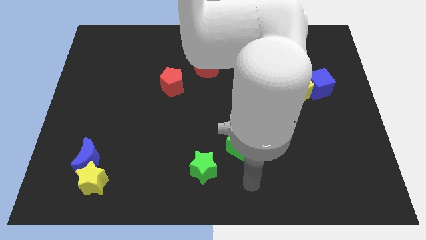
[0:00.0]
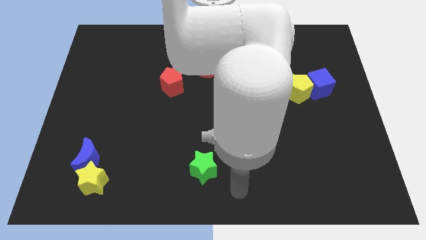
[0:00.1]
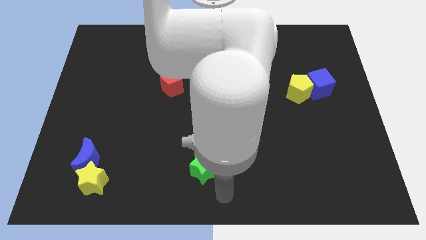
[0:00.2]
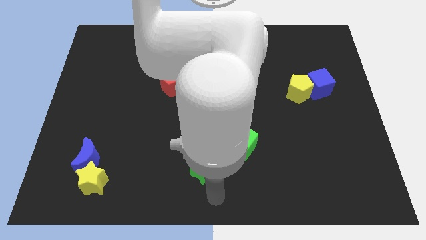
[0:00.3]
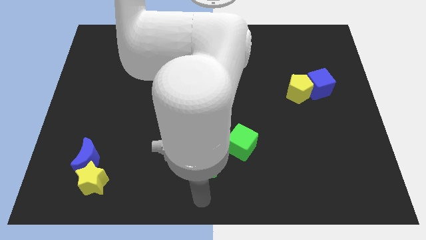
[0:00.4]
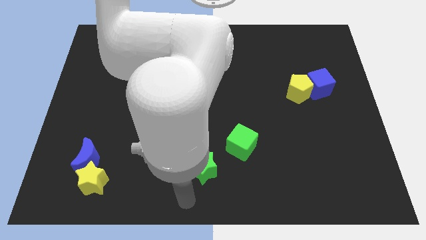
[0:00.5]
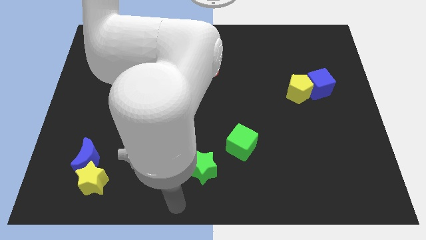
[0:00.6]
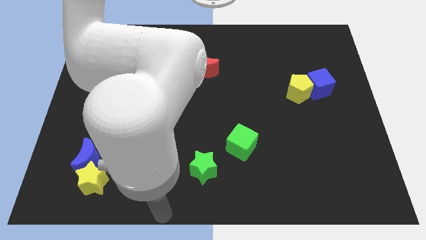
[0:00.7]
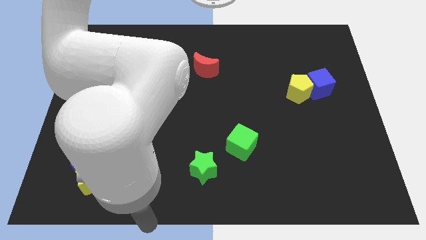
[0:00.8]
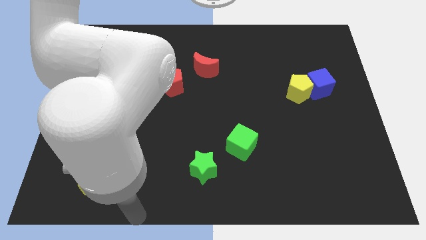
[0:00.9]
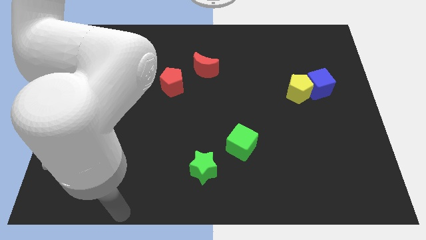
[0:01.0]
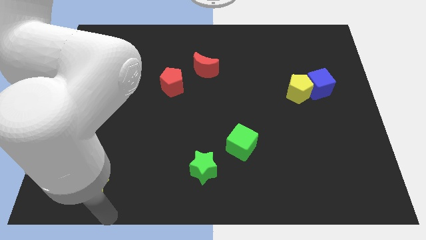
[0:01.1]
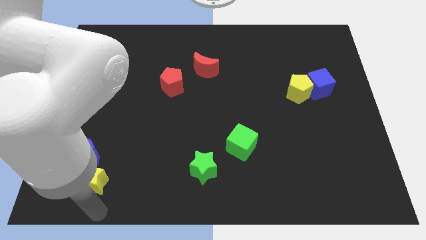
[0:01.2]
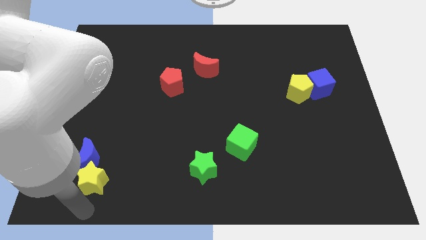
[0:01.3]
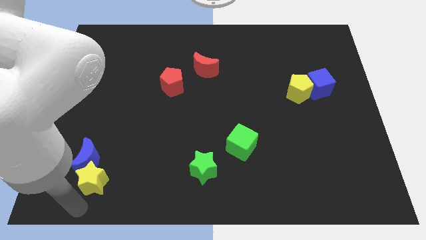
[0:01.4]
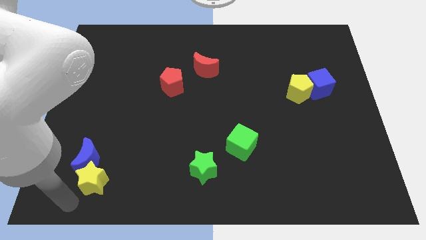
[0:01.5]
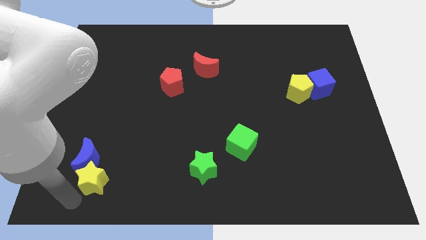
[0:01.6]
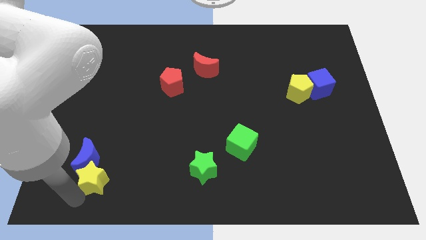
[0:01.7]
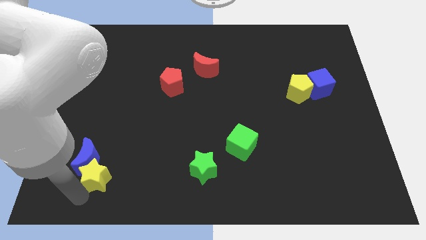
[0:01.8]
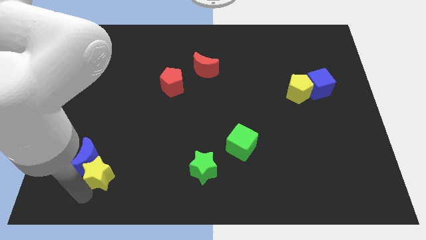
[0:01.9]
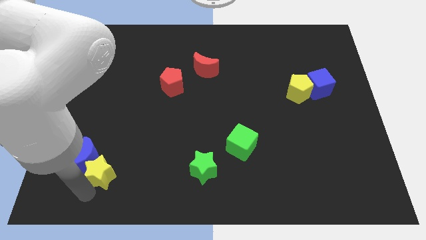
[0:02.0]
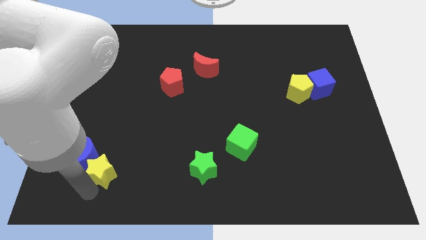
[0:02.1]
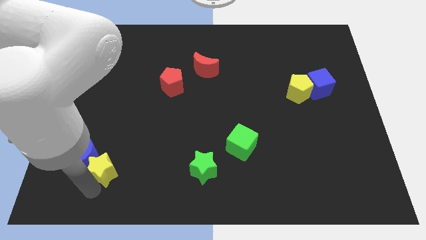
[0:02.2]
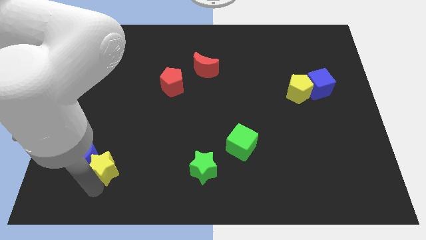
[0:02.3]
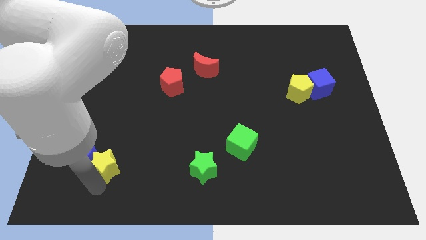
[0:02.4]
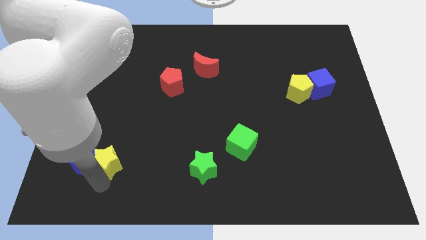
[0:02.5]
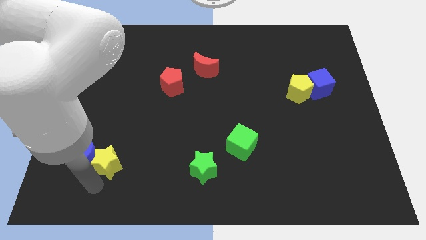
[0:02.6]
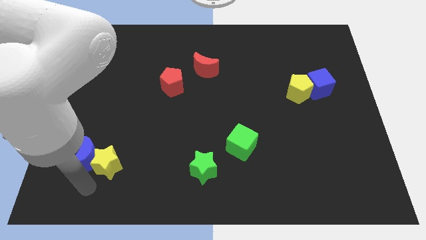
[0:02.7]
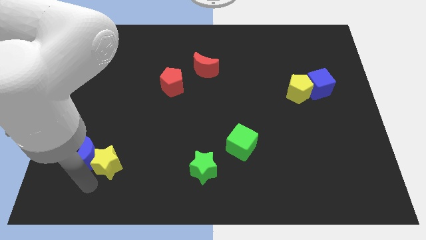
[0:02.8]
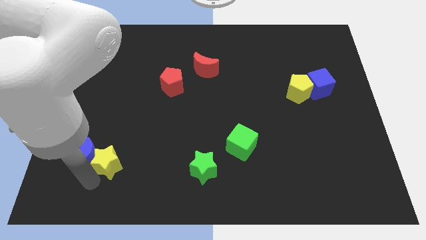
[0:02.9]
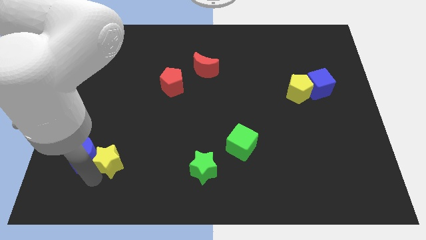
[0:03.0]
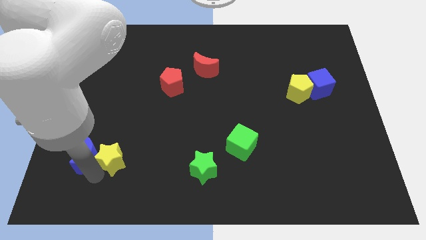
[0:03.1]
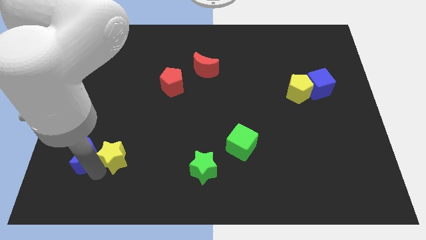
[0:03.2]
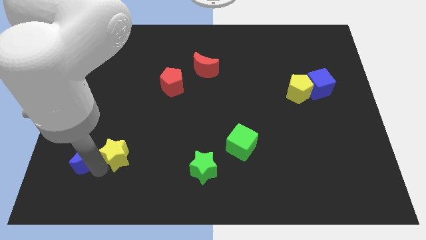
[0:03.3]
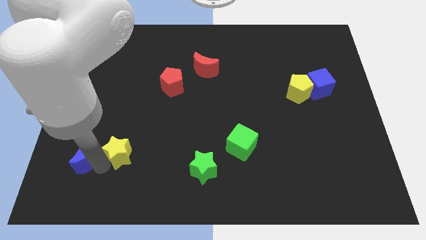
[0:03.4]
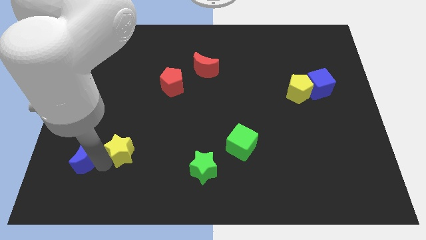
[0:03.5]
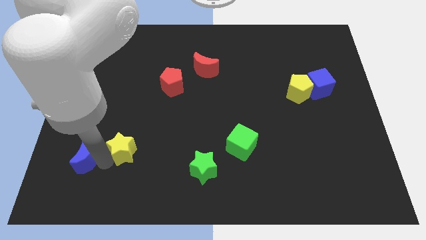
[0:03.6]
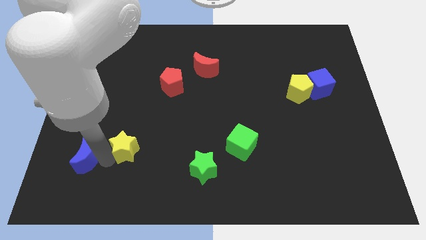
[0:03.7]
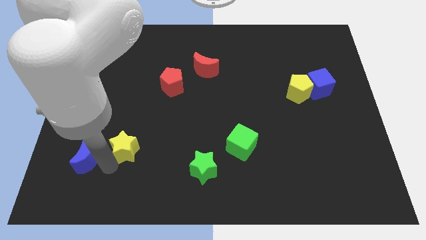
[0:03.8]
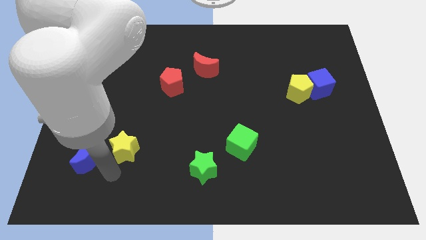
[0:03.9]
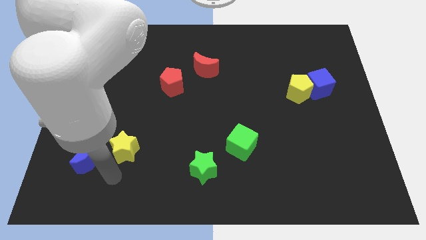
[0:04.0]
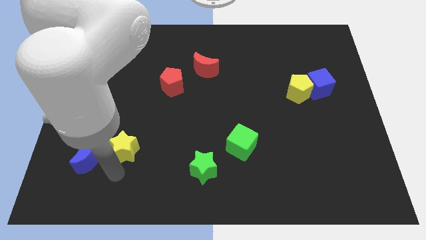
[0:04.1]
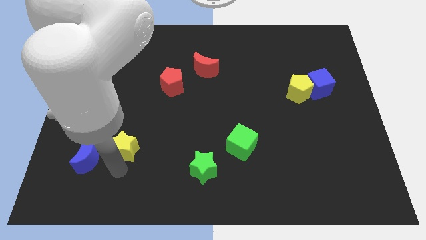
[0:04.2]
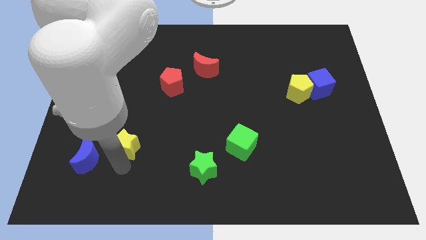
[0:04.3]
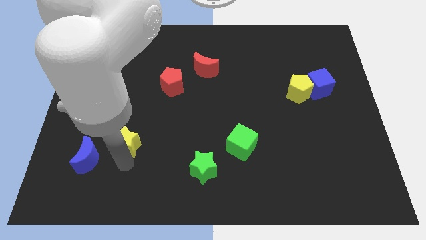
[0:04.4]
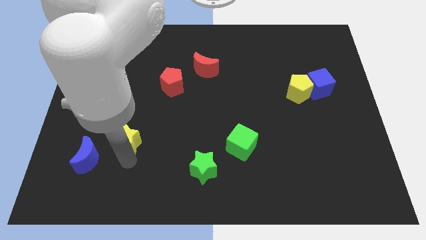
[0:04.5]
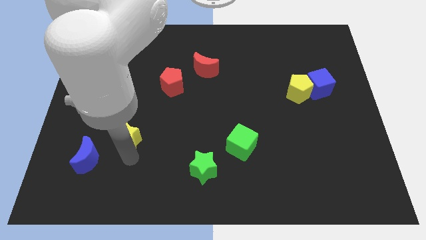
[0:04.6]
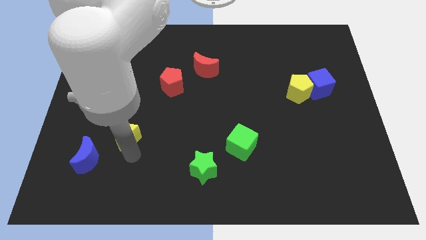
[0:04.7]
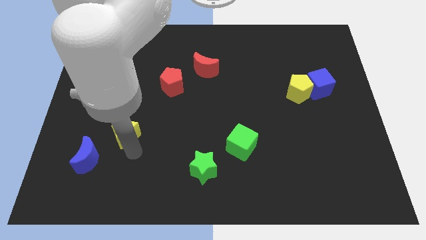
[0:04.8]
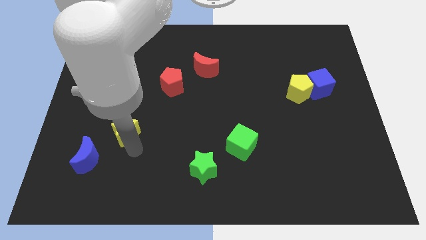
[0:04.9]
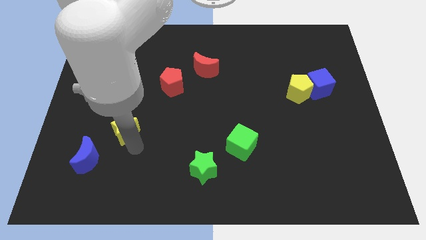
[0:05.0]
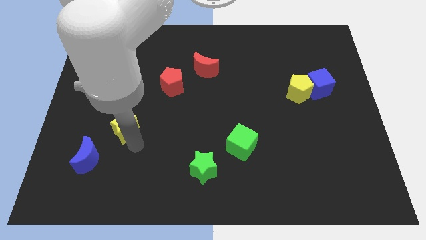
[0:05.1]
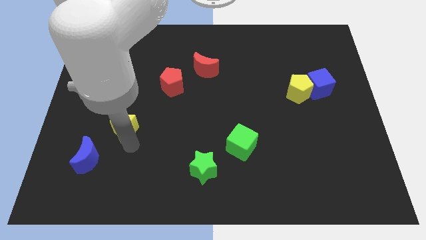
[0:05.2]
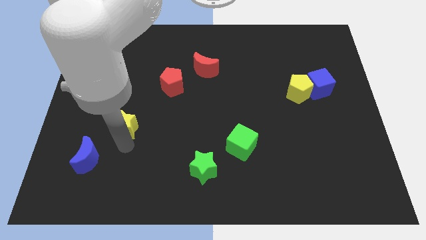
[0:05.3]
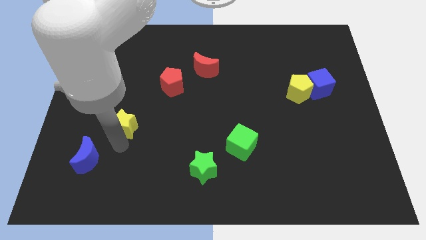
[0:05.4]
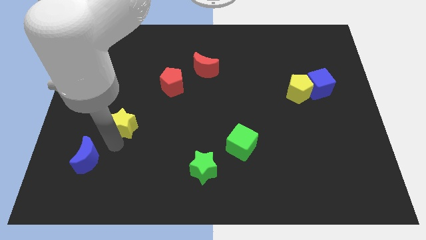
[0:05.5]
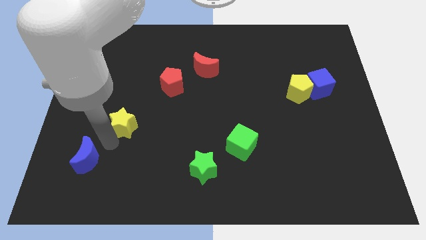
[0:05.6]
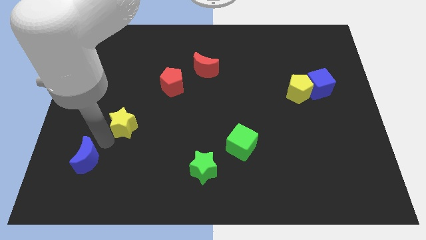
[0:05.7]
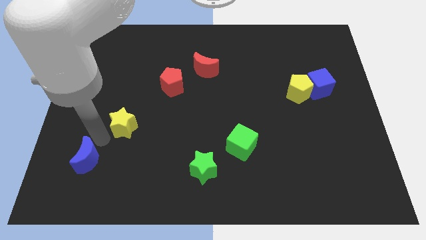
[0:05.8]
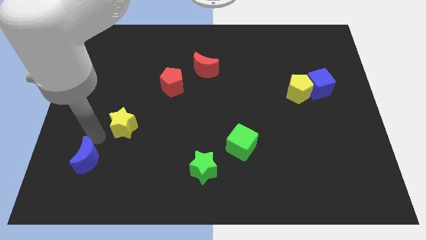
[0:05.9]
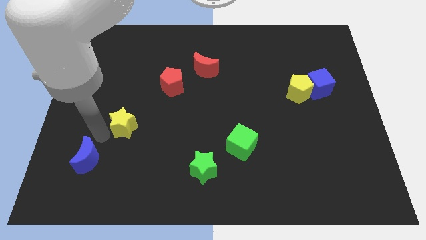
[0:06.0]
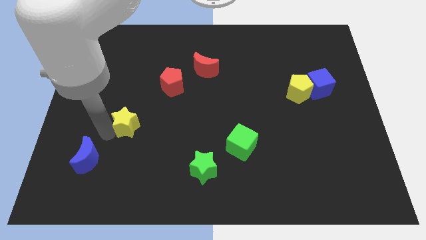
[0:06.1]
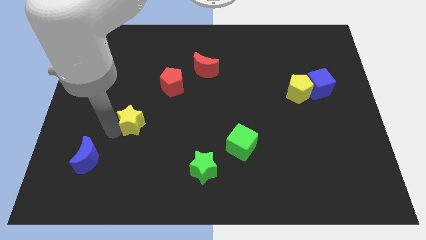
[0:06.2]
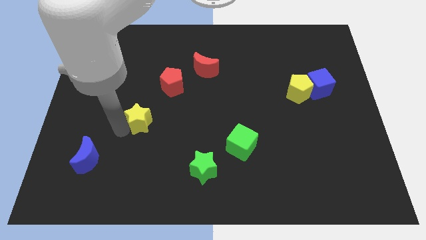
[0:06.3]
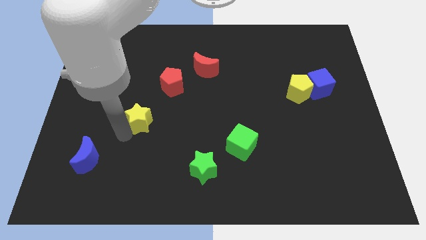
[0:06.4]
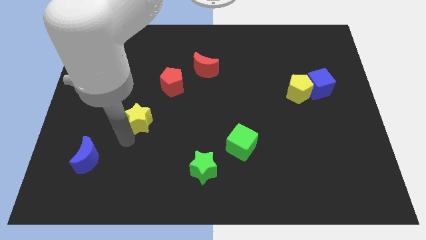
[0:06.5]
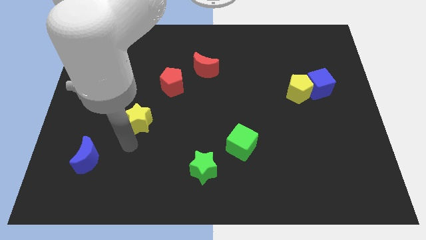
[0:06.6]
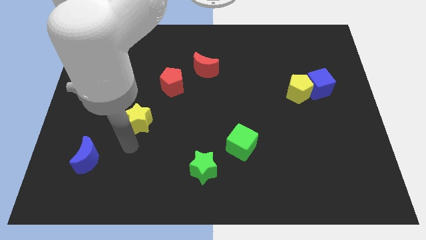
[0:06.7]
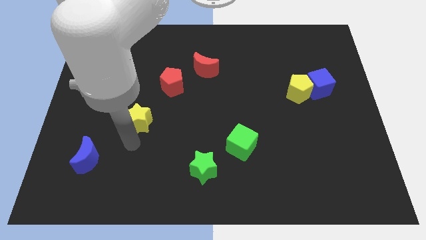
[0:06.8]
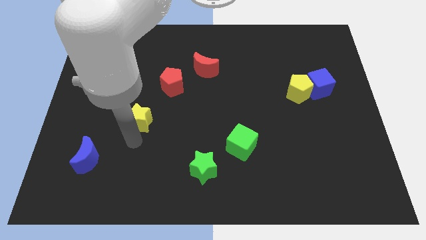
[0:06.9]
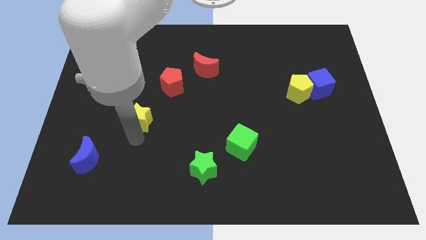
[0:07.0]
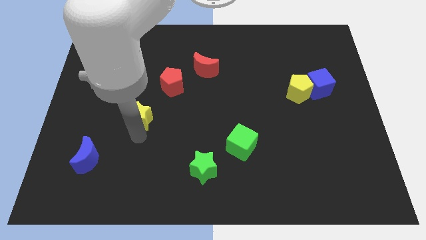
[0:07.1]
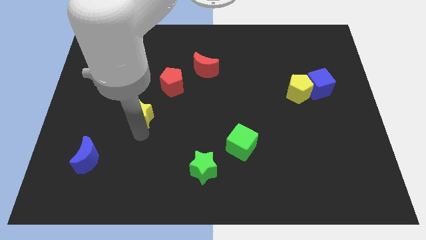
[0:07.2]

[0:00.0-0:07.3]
move the yellow star diagonally down and to the left of the red pentagon
